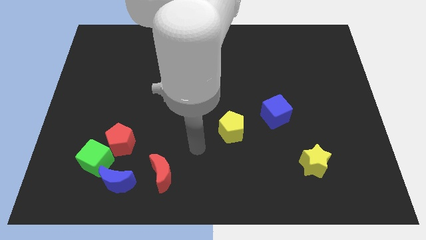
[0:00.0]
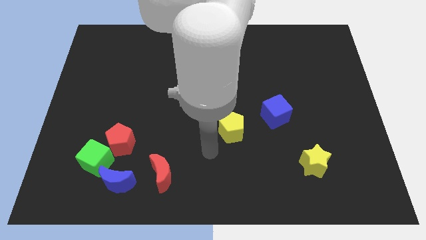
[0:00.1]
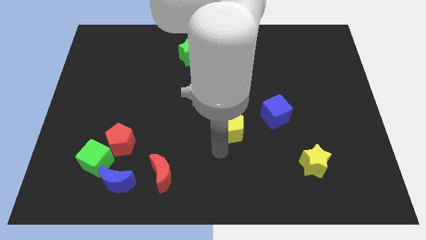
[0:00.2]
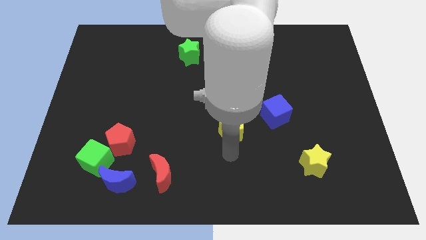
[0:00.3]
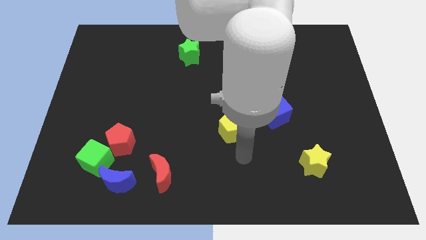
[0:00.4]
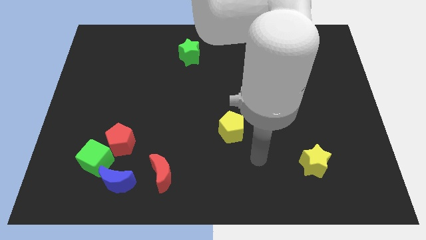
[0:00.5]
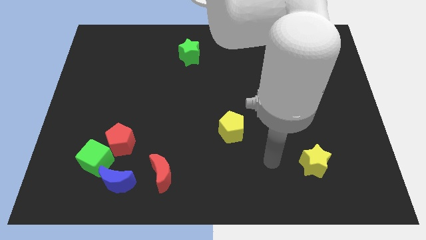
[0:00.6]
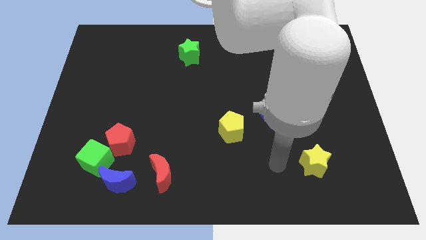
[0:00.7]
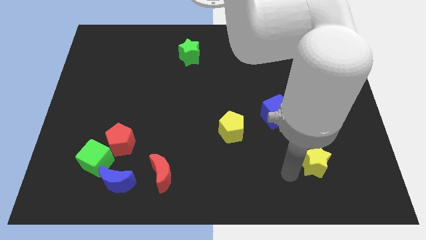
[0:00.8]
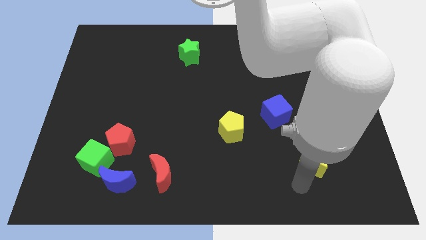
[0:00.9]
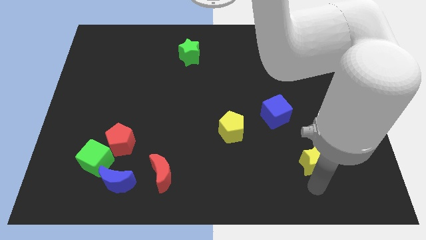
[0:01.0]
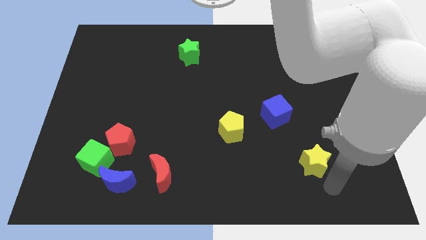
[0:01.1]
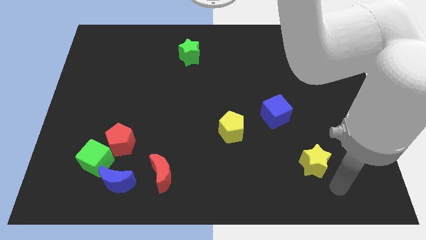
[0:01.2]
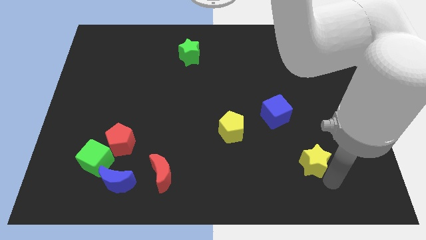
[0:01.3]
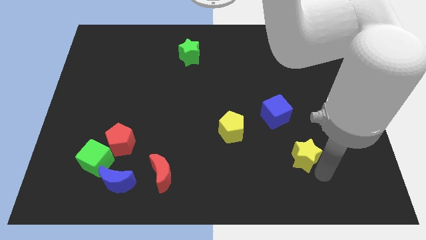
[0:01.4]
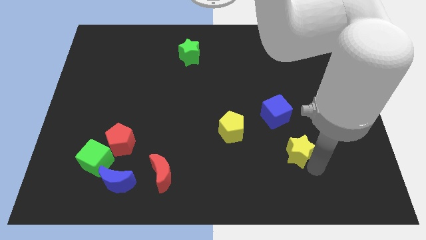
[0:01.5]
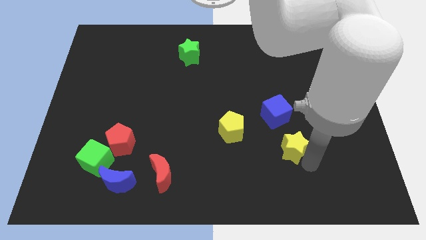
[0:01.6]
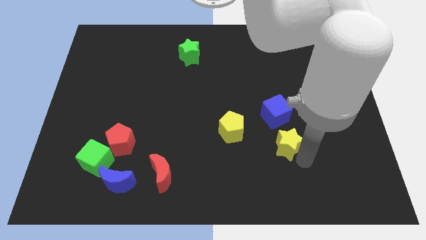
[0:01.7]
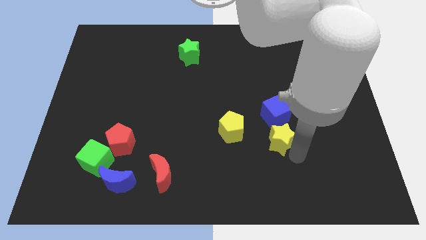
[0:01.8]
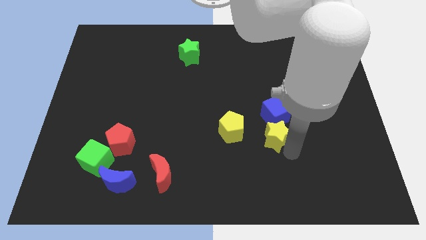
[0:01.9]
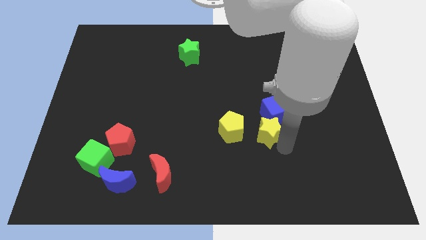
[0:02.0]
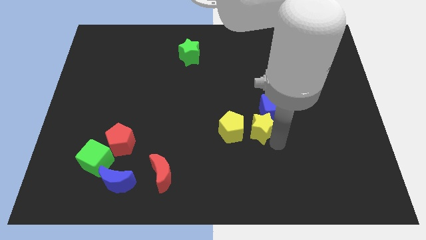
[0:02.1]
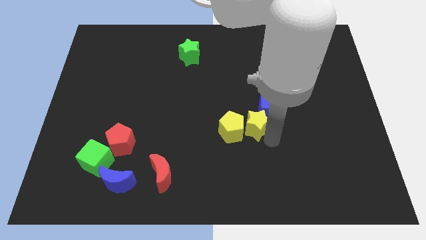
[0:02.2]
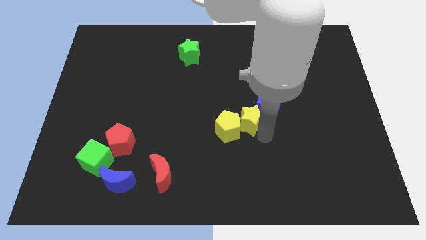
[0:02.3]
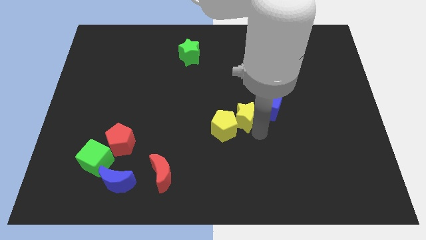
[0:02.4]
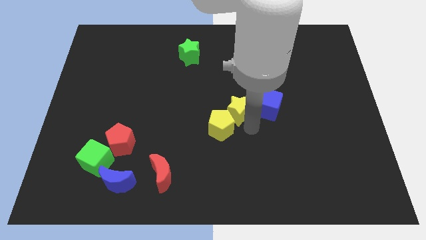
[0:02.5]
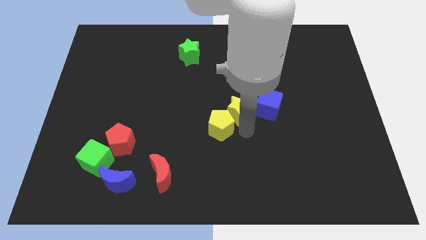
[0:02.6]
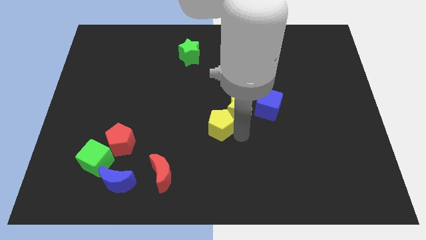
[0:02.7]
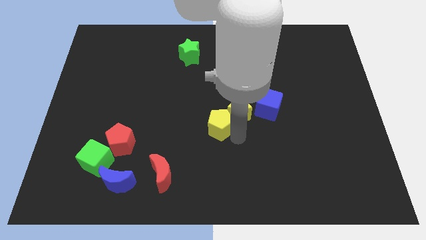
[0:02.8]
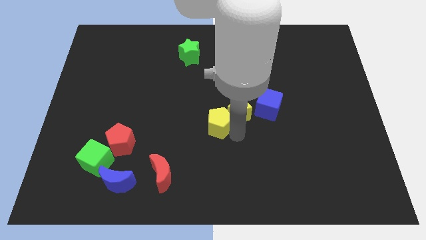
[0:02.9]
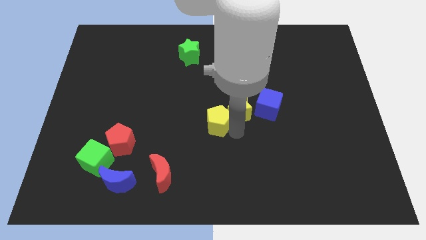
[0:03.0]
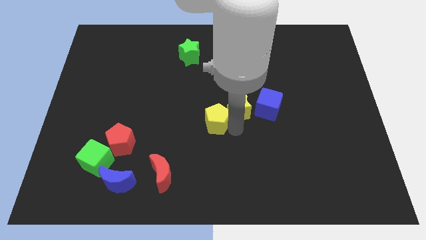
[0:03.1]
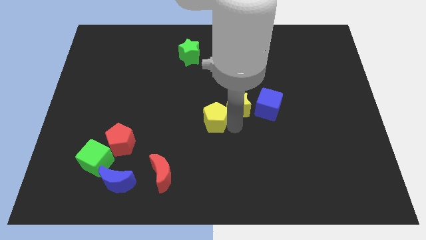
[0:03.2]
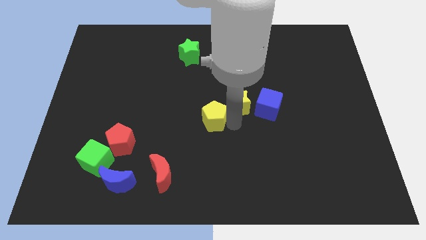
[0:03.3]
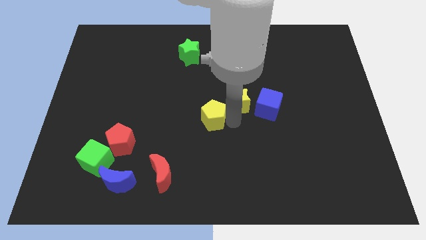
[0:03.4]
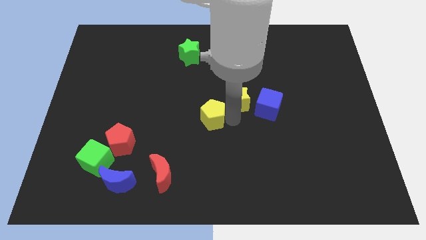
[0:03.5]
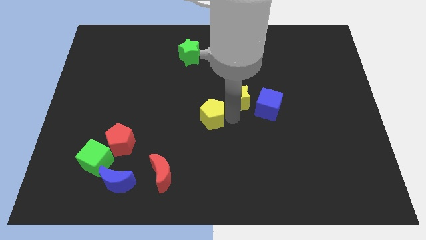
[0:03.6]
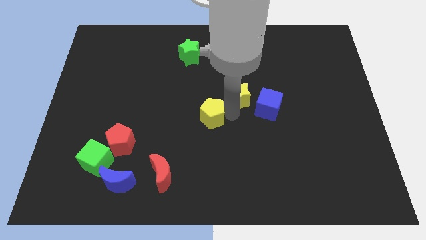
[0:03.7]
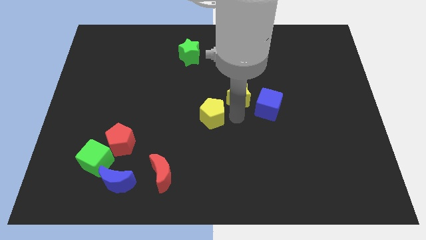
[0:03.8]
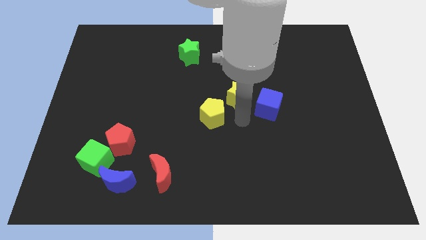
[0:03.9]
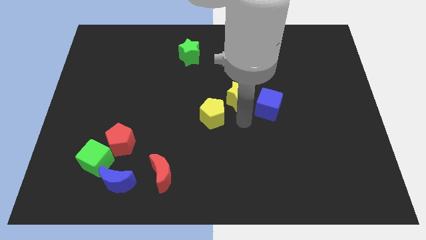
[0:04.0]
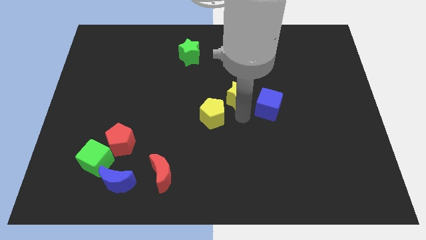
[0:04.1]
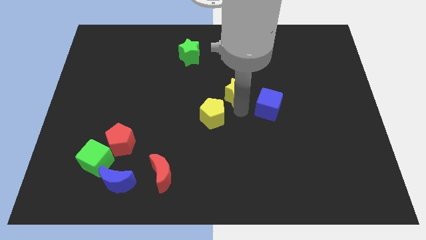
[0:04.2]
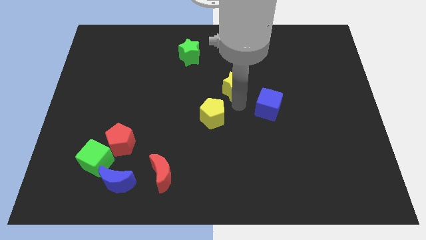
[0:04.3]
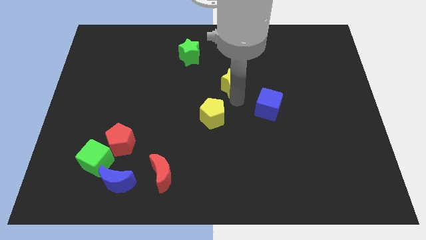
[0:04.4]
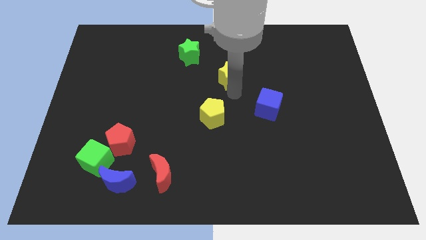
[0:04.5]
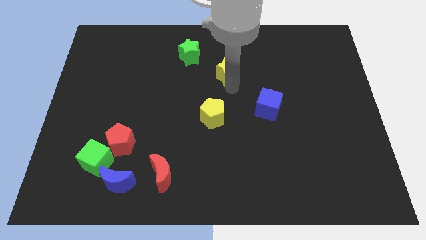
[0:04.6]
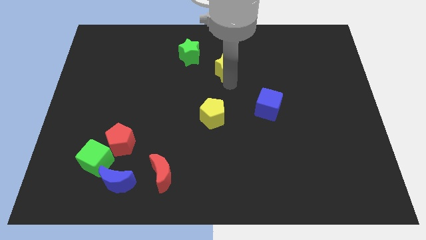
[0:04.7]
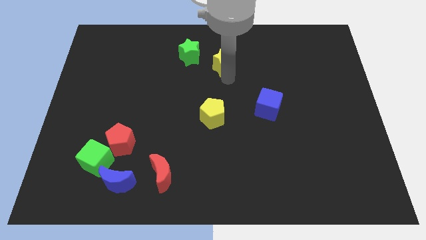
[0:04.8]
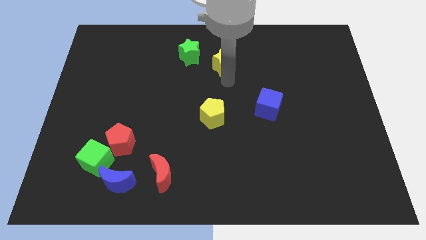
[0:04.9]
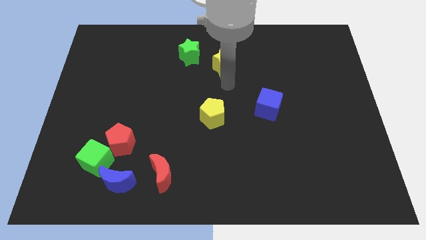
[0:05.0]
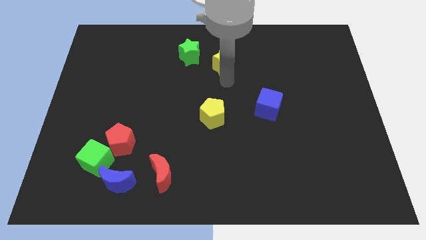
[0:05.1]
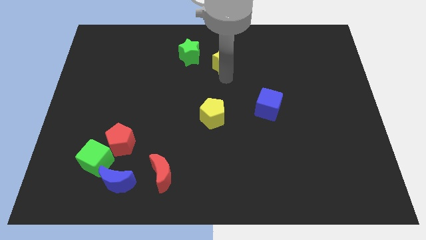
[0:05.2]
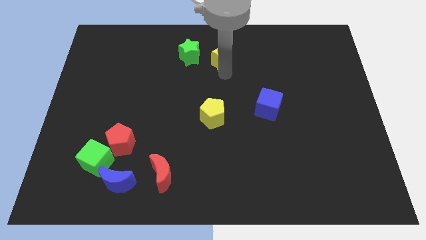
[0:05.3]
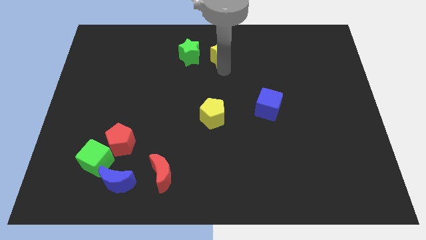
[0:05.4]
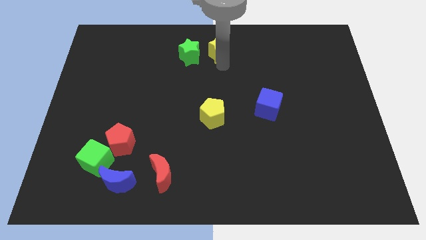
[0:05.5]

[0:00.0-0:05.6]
push the yellow star to the top side

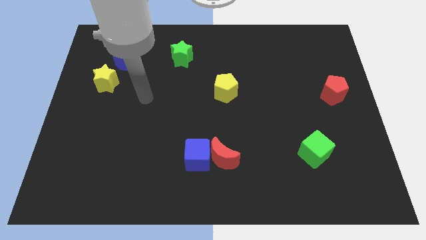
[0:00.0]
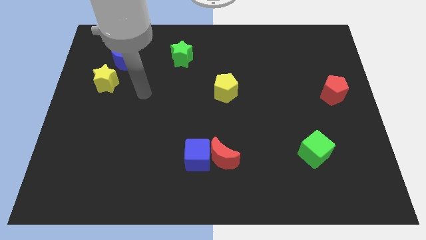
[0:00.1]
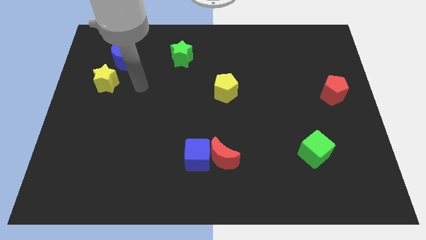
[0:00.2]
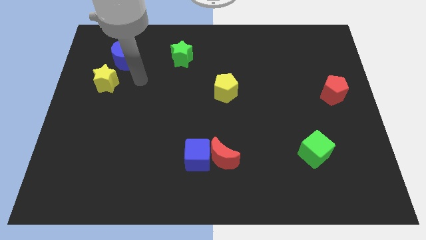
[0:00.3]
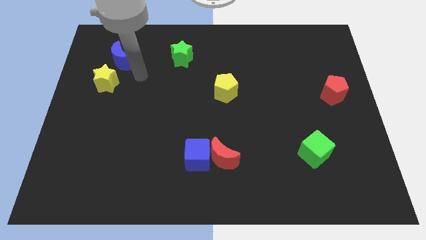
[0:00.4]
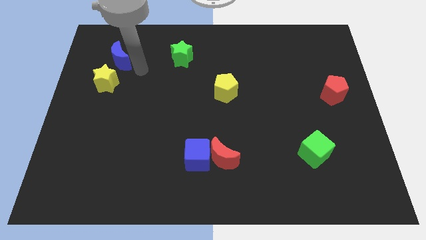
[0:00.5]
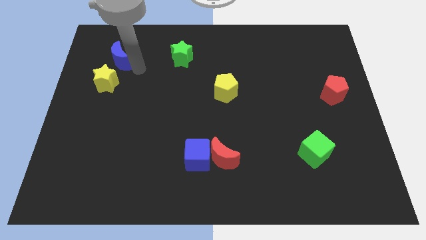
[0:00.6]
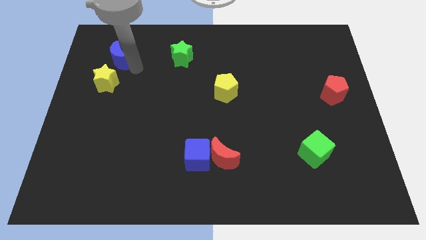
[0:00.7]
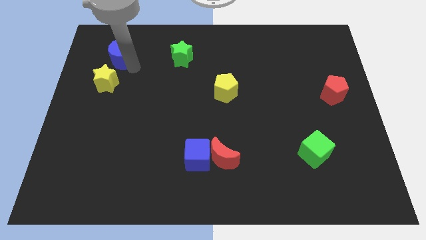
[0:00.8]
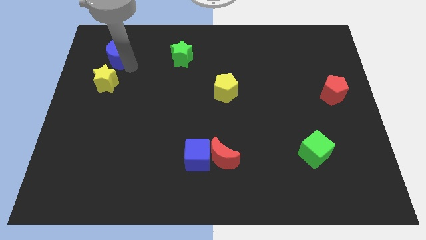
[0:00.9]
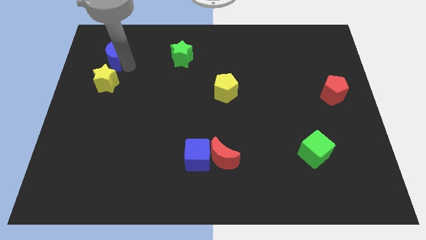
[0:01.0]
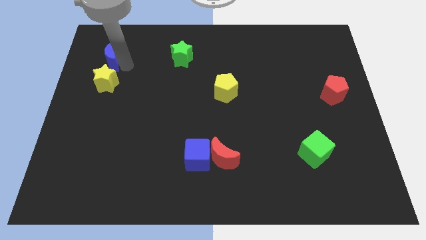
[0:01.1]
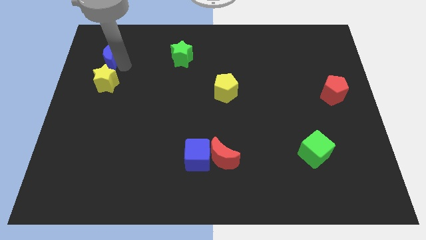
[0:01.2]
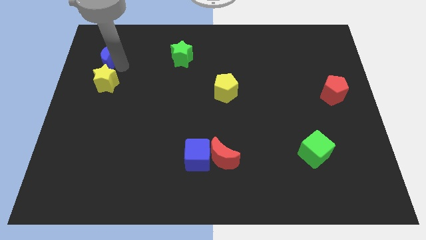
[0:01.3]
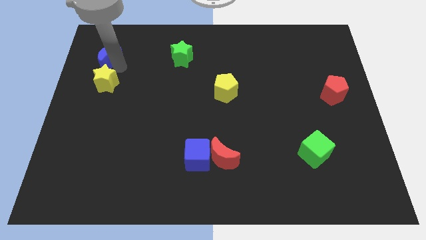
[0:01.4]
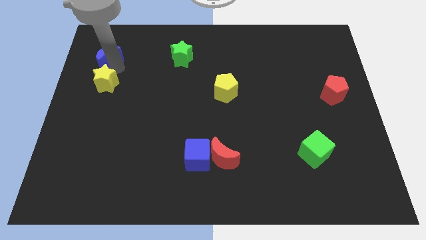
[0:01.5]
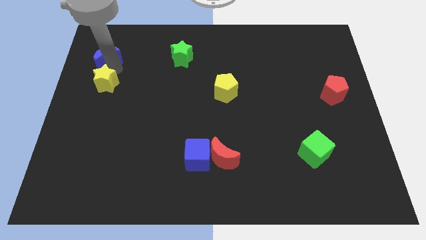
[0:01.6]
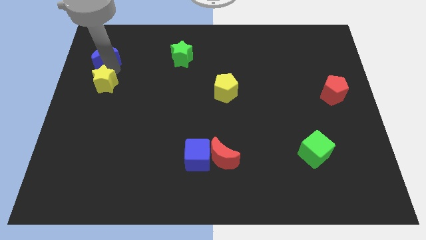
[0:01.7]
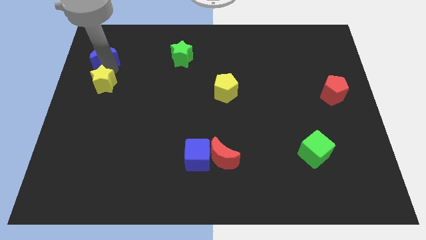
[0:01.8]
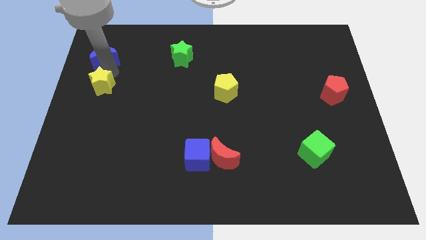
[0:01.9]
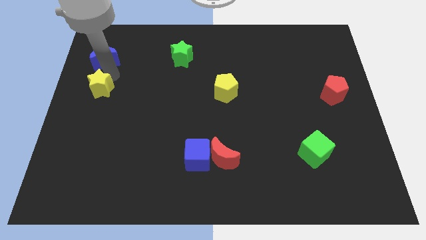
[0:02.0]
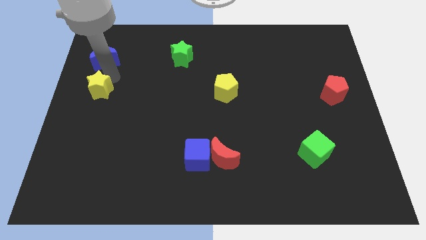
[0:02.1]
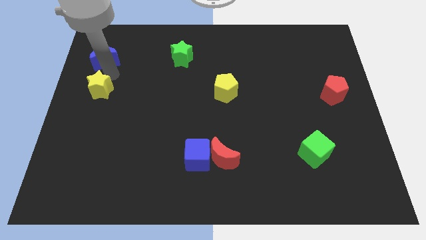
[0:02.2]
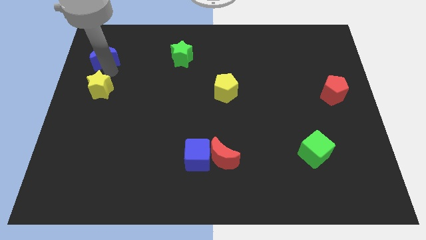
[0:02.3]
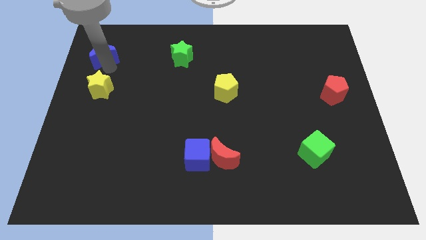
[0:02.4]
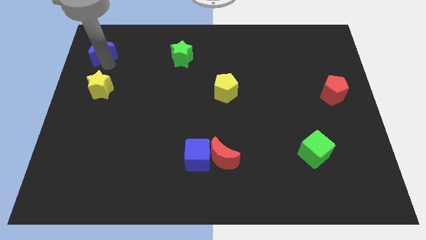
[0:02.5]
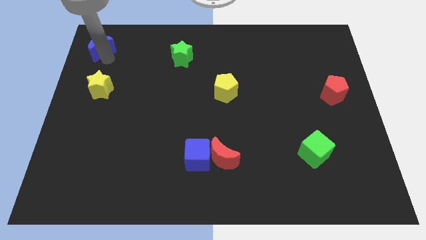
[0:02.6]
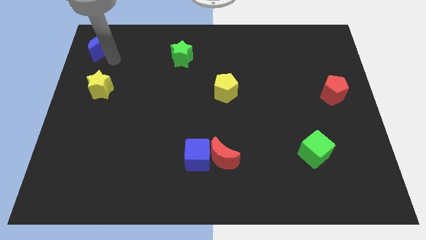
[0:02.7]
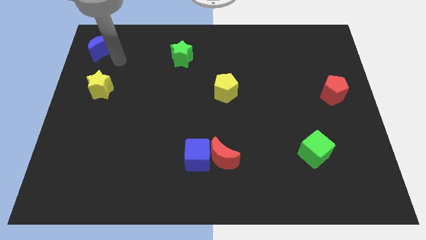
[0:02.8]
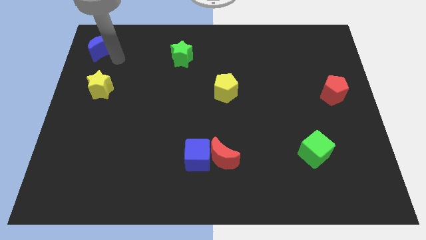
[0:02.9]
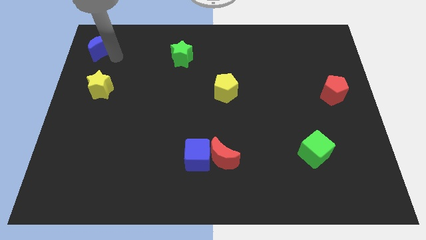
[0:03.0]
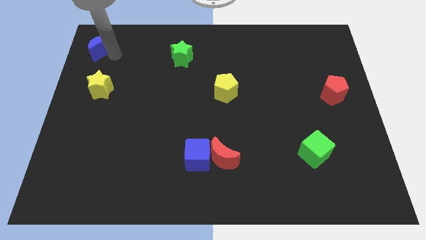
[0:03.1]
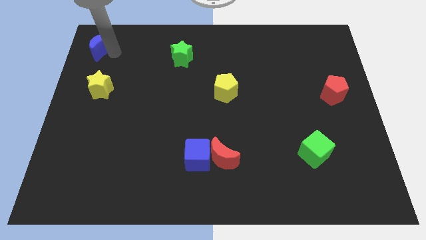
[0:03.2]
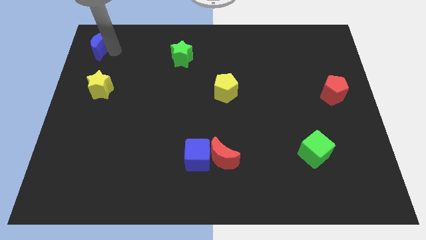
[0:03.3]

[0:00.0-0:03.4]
move the blue moon to the top left
